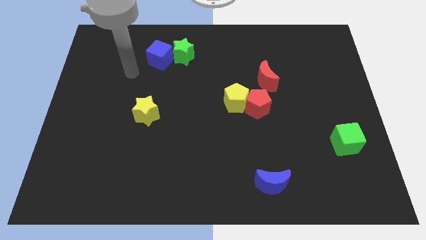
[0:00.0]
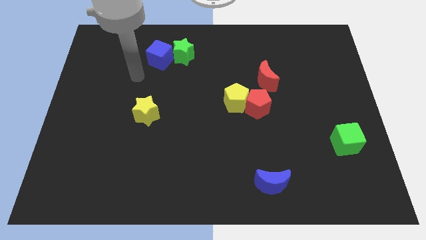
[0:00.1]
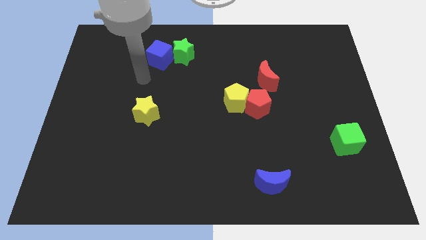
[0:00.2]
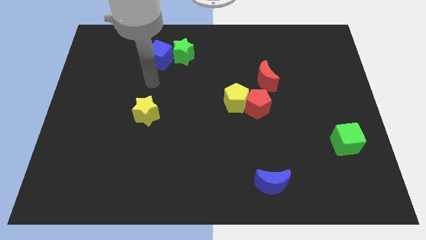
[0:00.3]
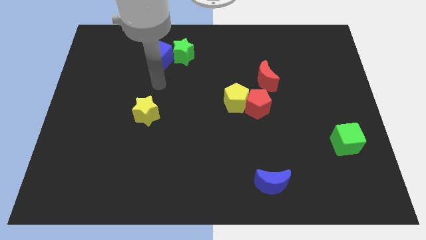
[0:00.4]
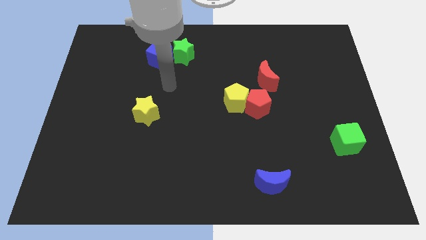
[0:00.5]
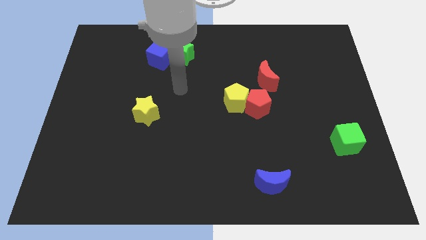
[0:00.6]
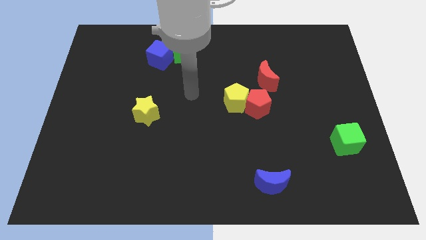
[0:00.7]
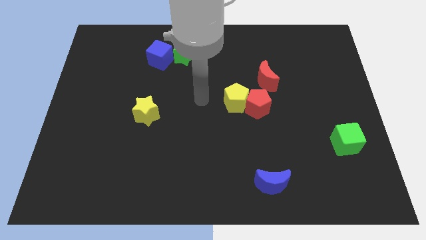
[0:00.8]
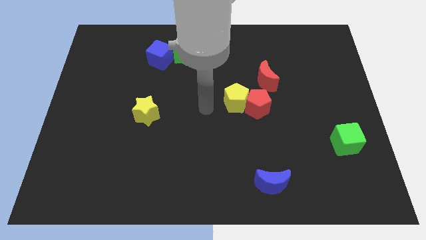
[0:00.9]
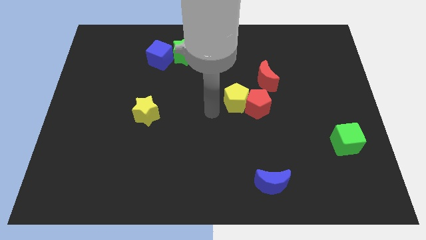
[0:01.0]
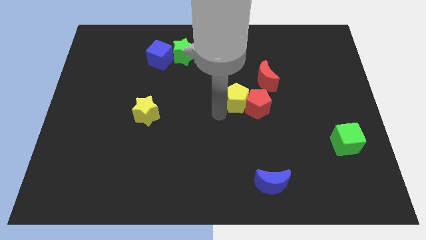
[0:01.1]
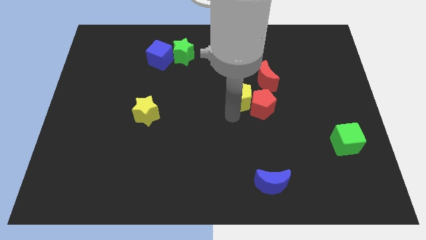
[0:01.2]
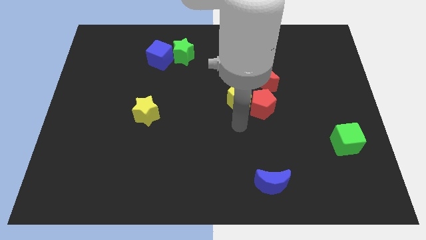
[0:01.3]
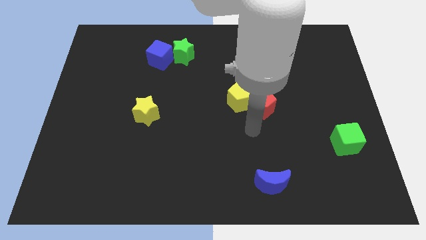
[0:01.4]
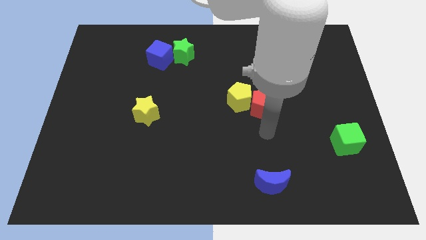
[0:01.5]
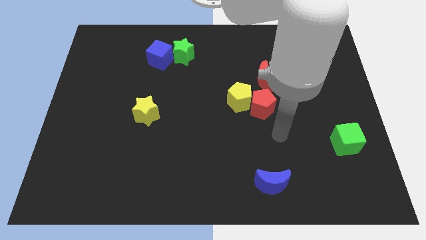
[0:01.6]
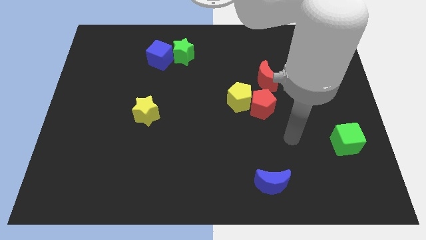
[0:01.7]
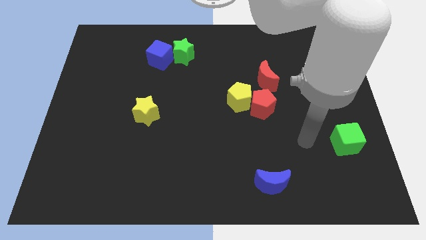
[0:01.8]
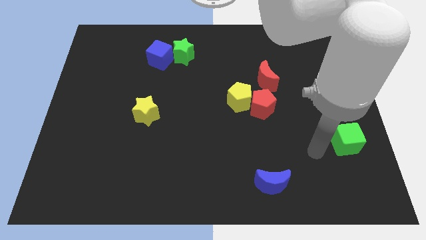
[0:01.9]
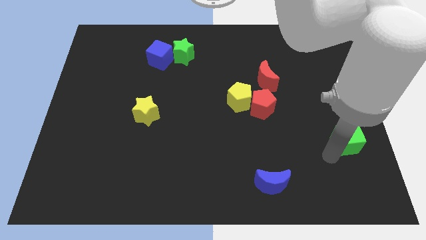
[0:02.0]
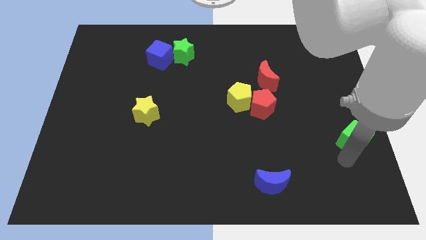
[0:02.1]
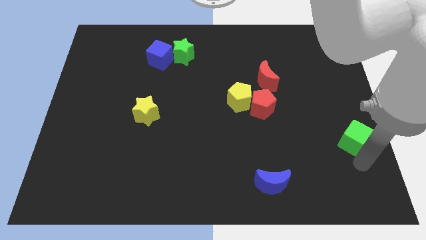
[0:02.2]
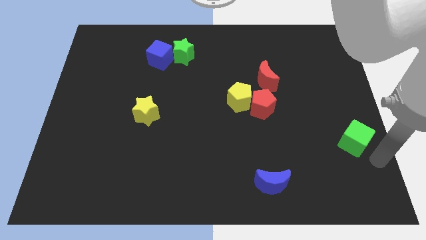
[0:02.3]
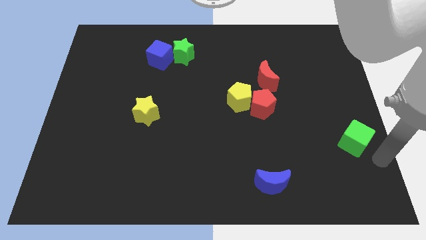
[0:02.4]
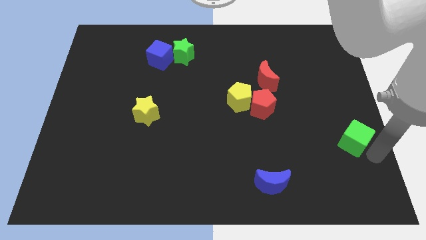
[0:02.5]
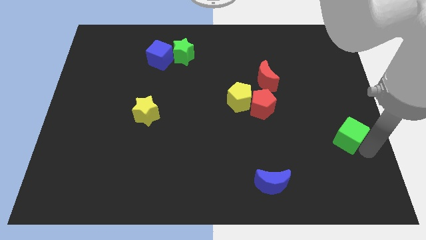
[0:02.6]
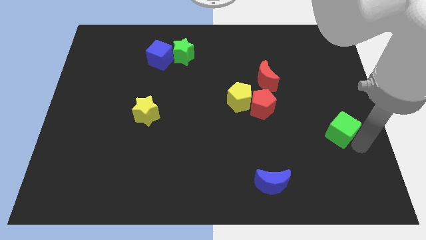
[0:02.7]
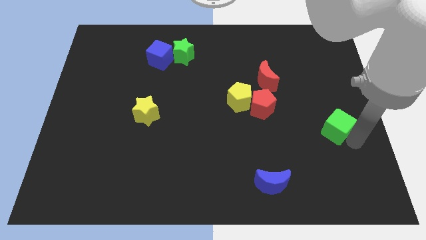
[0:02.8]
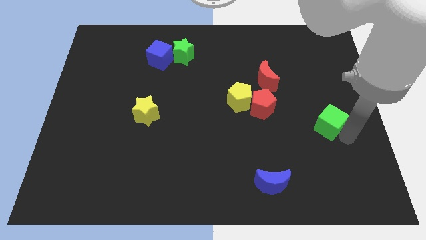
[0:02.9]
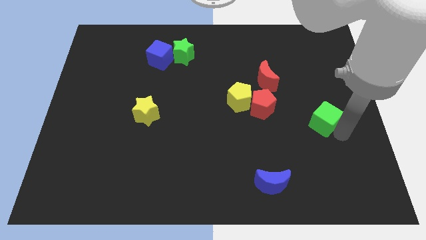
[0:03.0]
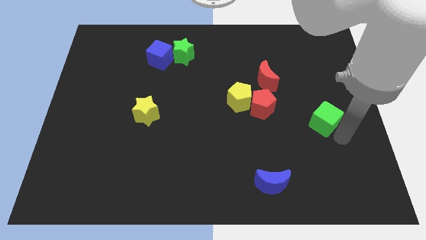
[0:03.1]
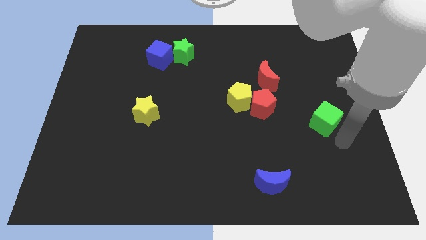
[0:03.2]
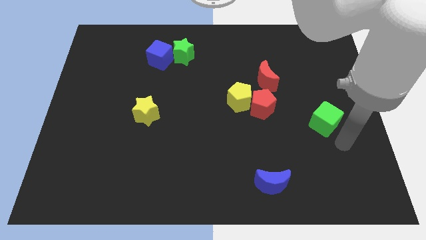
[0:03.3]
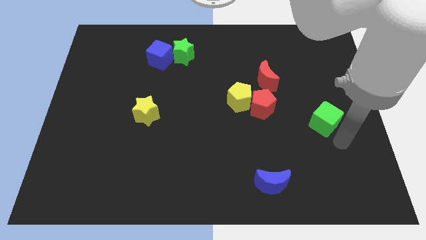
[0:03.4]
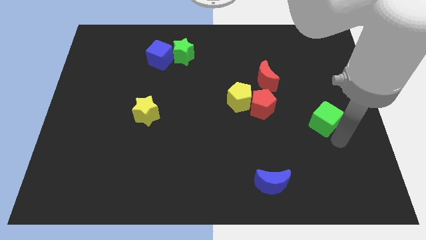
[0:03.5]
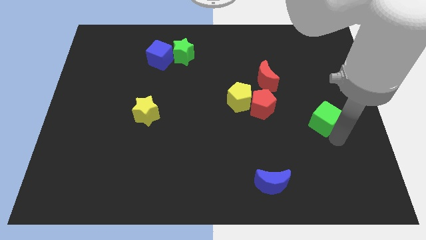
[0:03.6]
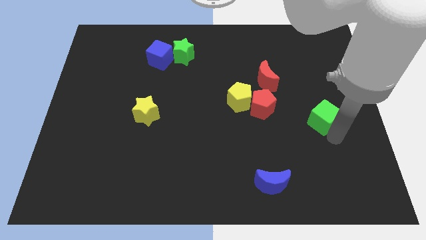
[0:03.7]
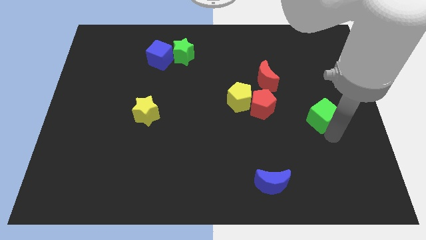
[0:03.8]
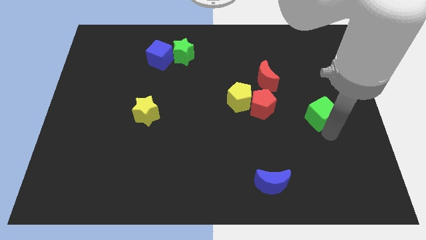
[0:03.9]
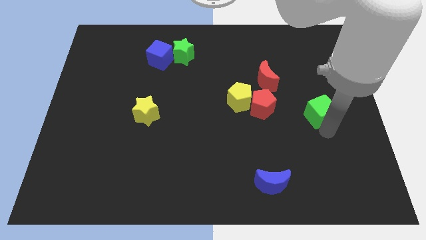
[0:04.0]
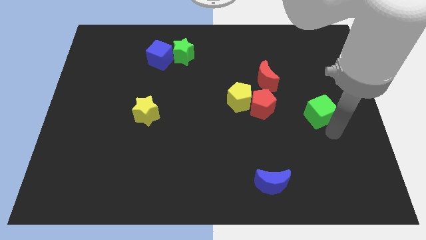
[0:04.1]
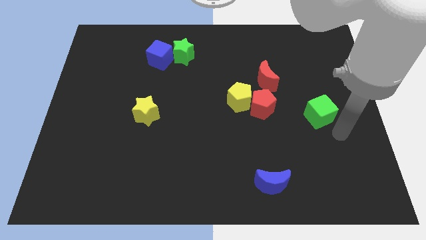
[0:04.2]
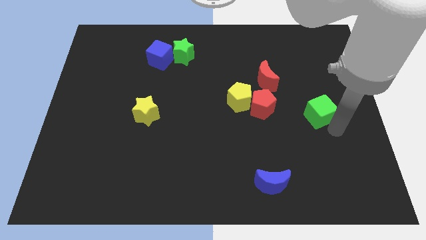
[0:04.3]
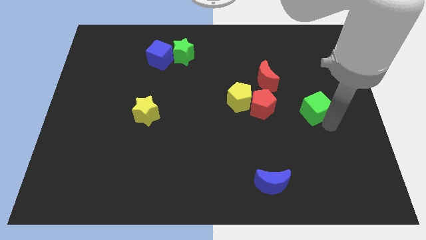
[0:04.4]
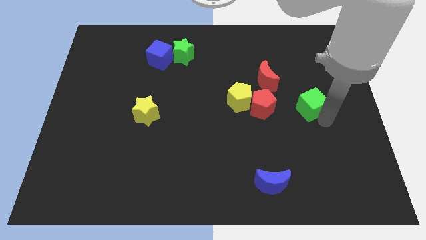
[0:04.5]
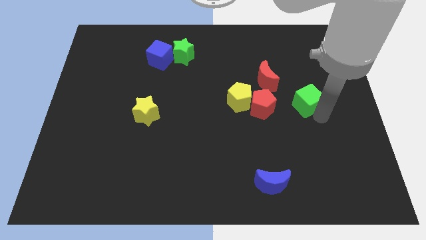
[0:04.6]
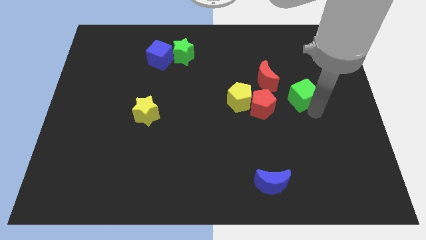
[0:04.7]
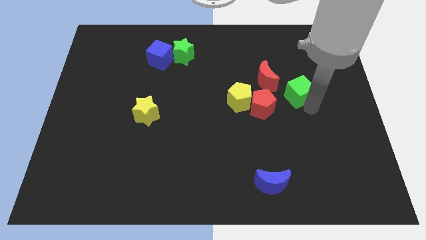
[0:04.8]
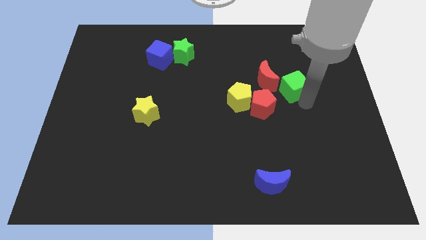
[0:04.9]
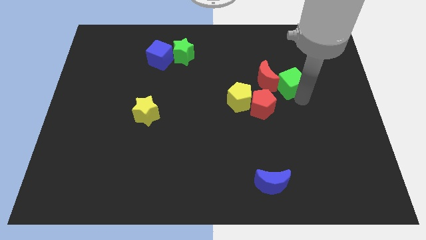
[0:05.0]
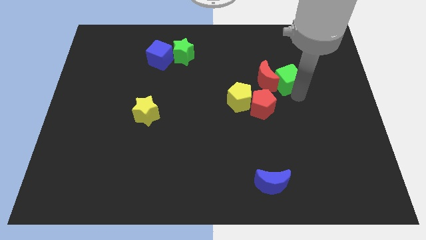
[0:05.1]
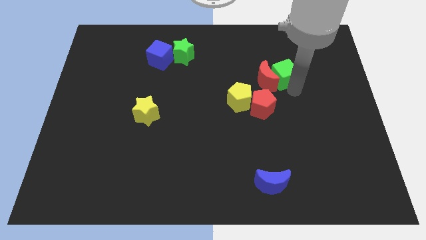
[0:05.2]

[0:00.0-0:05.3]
move the green cube up and then to the left

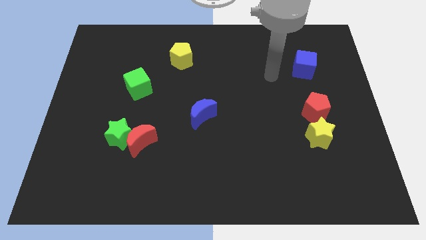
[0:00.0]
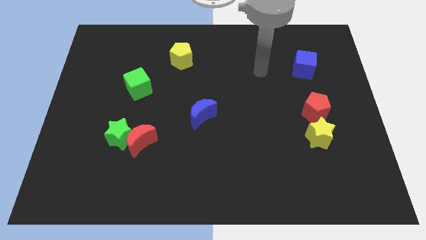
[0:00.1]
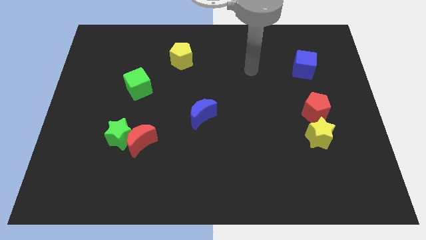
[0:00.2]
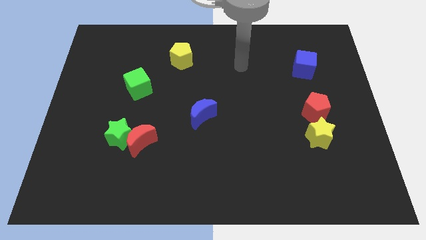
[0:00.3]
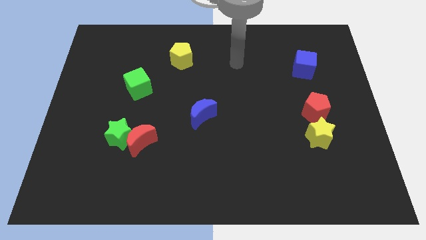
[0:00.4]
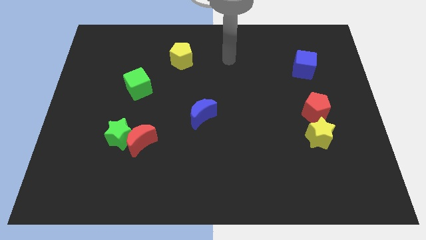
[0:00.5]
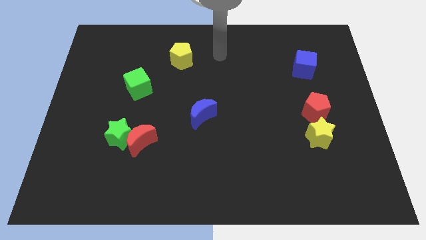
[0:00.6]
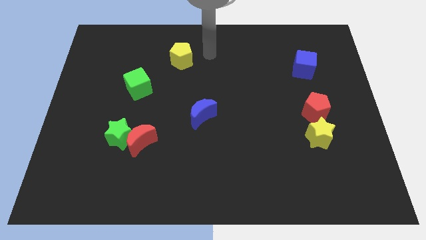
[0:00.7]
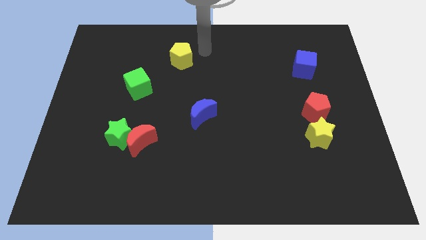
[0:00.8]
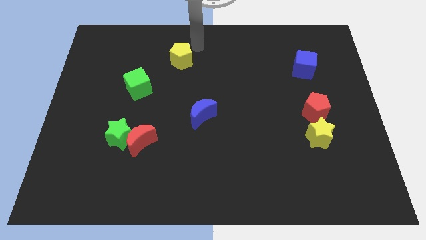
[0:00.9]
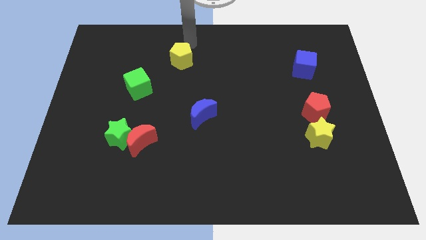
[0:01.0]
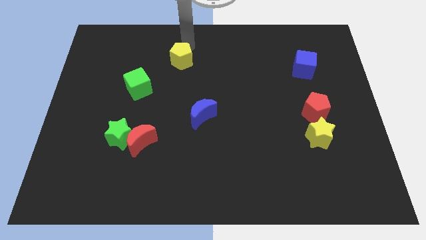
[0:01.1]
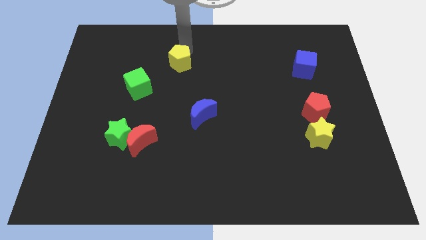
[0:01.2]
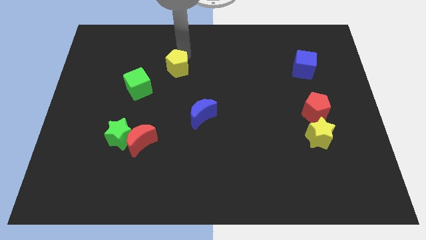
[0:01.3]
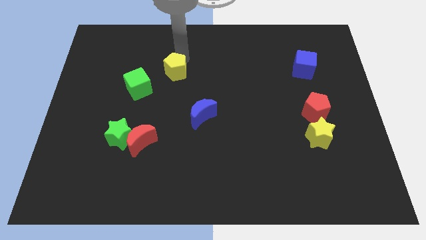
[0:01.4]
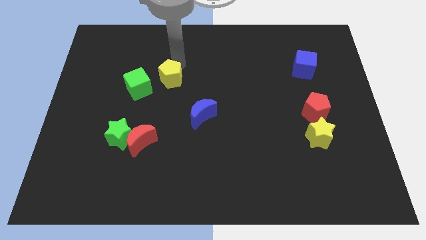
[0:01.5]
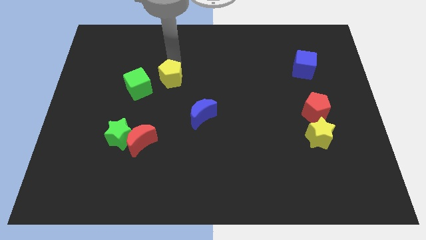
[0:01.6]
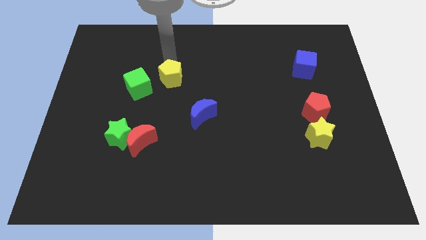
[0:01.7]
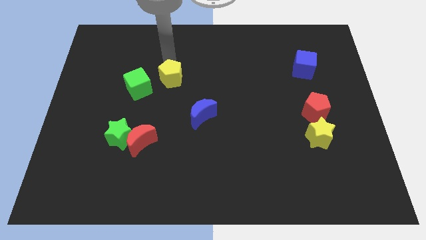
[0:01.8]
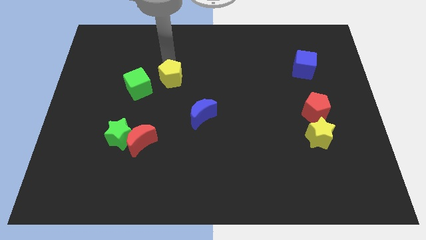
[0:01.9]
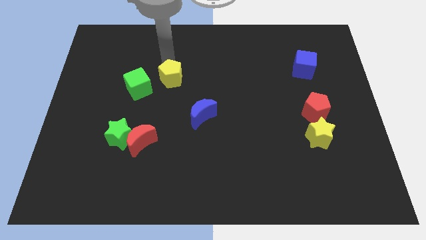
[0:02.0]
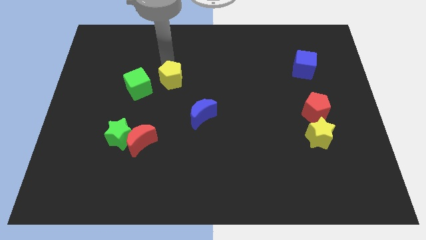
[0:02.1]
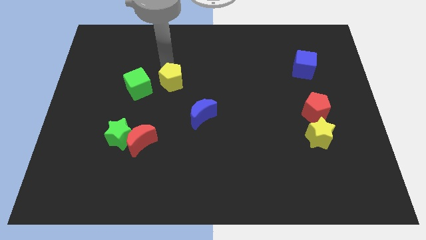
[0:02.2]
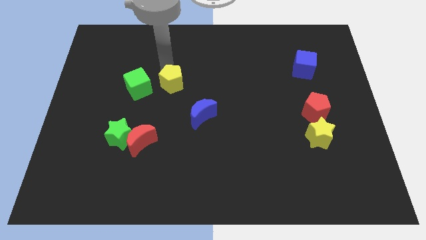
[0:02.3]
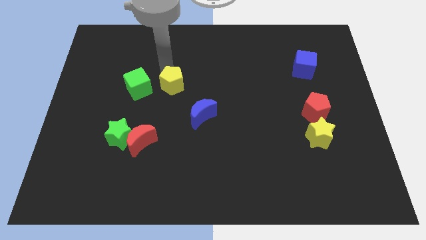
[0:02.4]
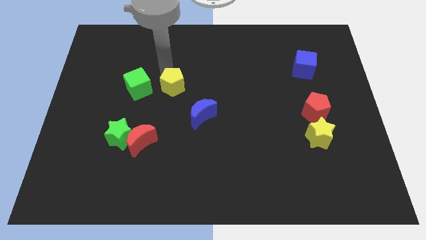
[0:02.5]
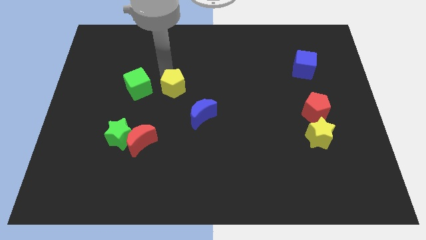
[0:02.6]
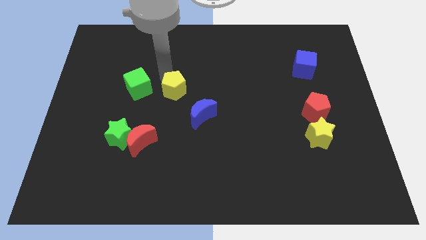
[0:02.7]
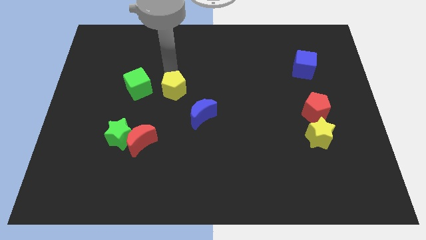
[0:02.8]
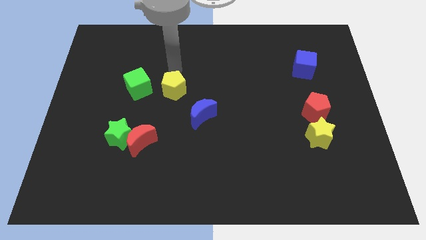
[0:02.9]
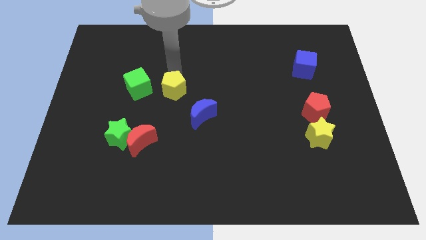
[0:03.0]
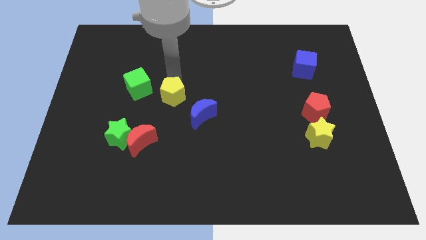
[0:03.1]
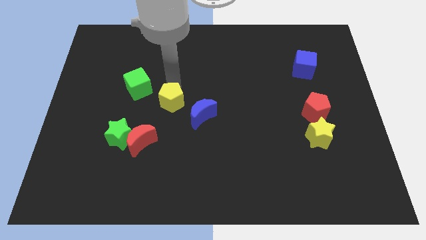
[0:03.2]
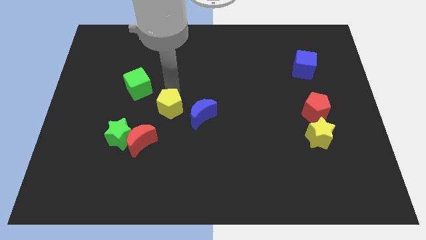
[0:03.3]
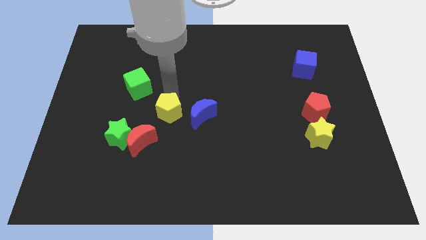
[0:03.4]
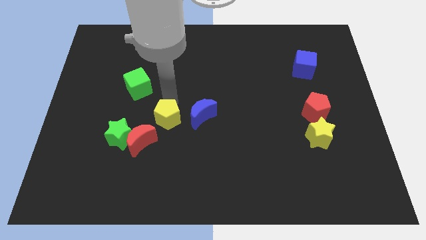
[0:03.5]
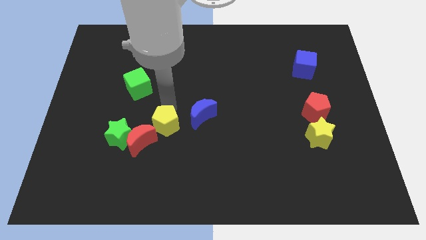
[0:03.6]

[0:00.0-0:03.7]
push the yellow pentagon down
